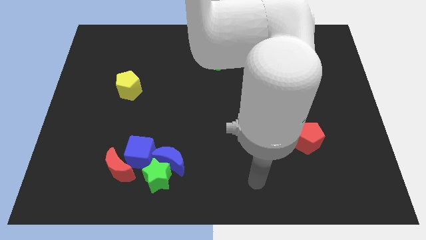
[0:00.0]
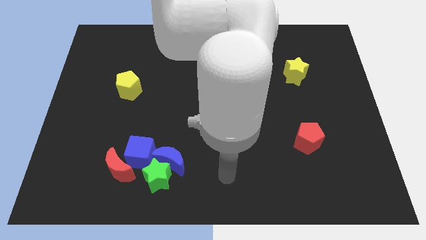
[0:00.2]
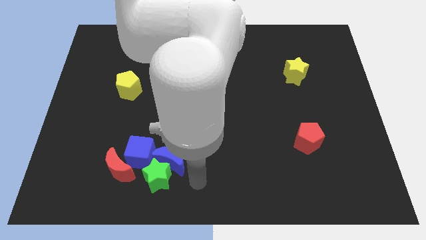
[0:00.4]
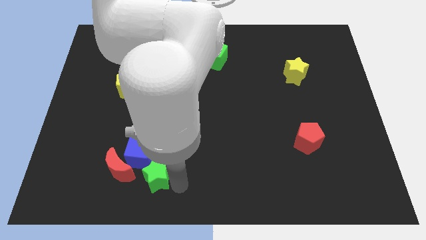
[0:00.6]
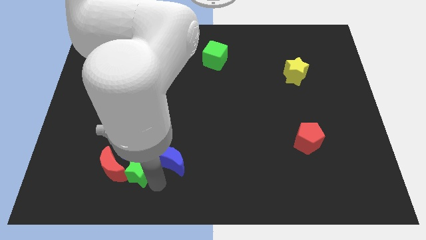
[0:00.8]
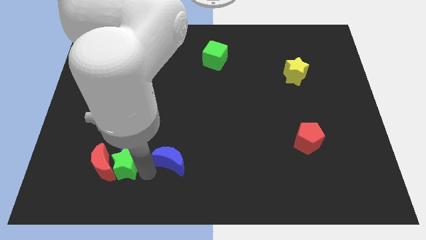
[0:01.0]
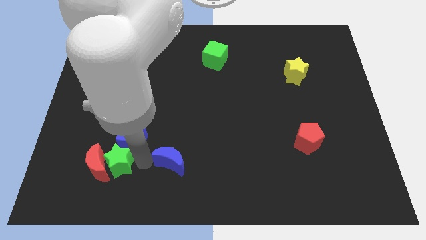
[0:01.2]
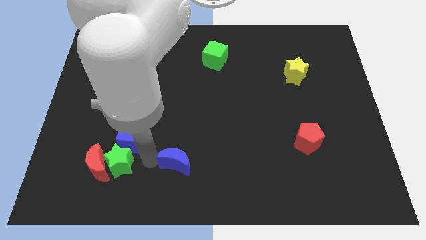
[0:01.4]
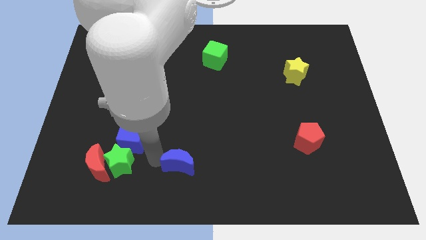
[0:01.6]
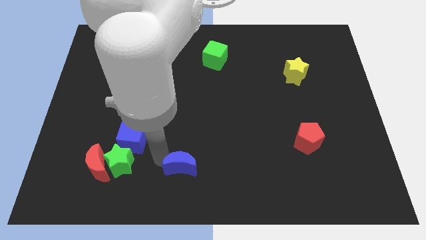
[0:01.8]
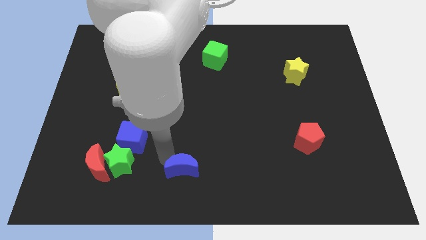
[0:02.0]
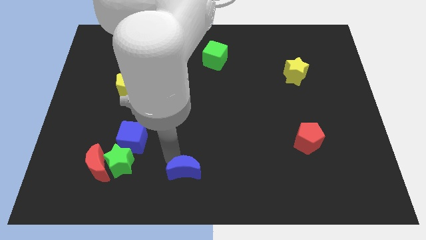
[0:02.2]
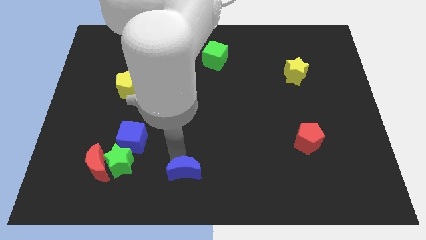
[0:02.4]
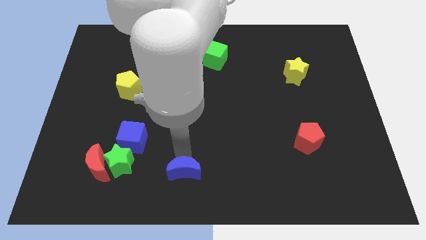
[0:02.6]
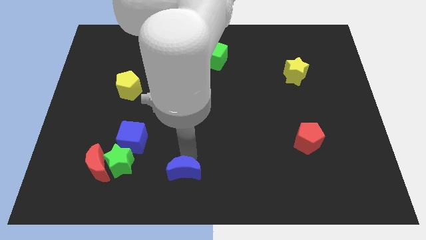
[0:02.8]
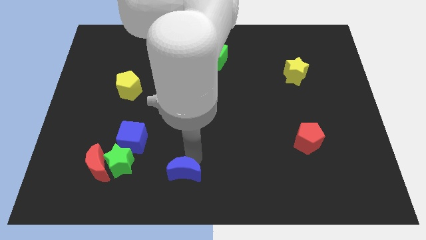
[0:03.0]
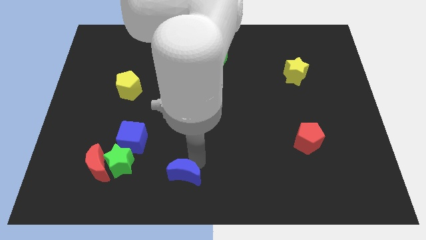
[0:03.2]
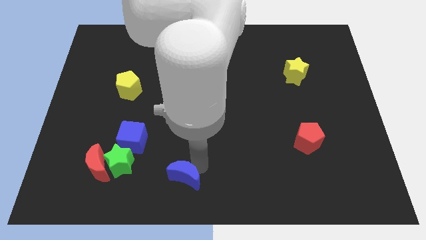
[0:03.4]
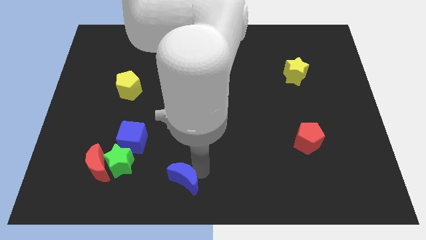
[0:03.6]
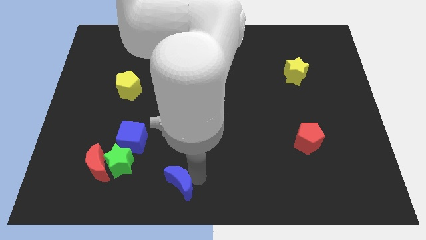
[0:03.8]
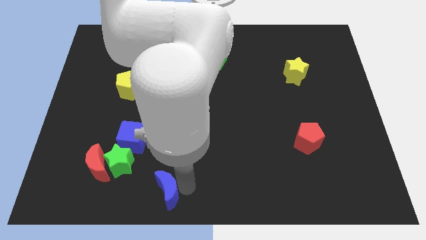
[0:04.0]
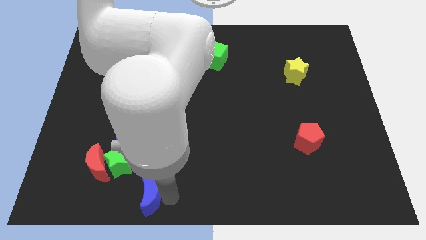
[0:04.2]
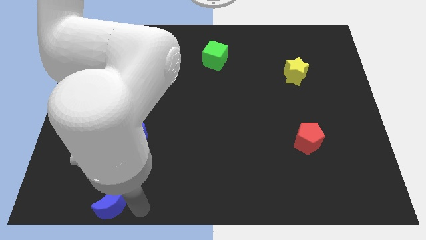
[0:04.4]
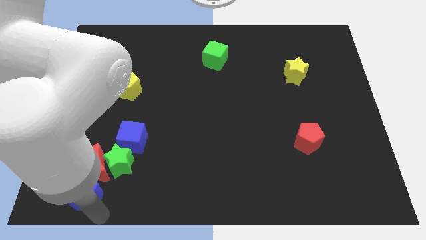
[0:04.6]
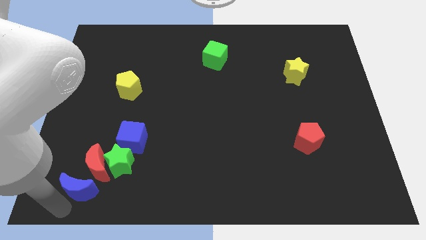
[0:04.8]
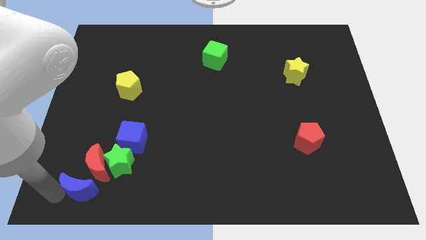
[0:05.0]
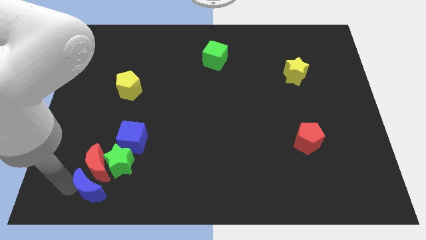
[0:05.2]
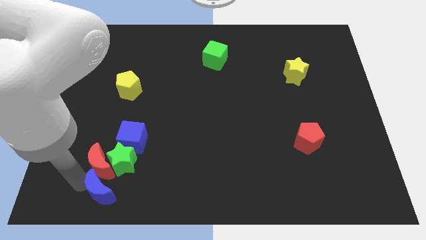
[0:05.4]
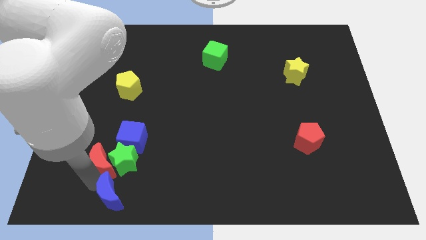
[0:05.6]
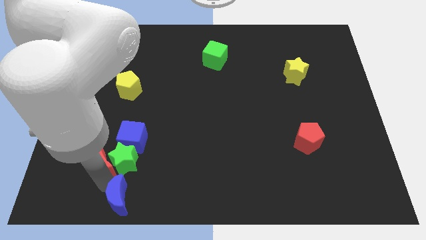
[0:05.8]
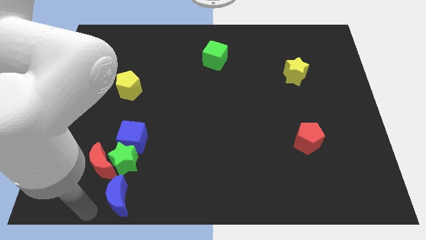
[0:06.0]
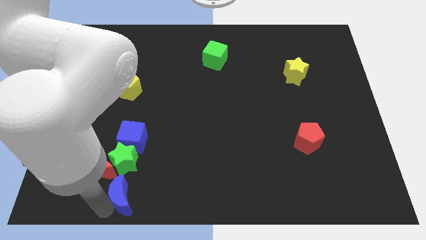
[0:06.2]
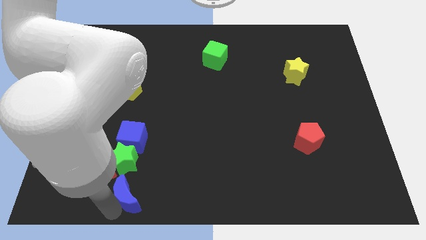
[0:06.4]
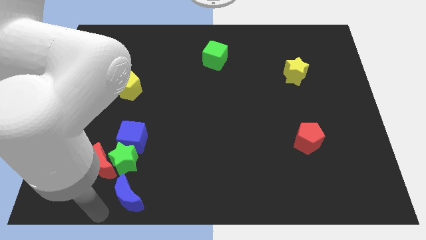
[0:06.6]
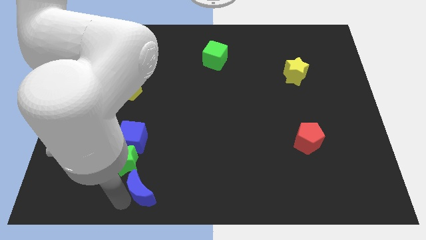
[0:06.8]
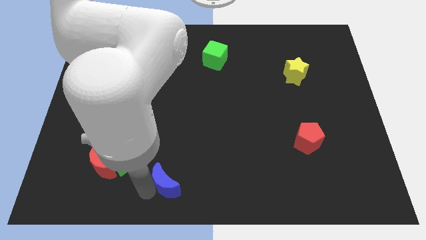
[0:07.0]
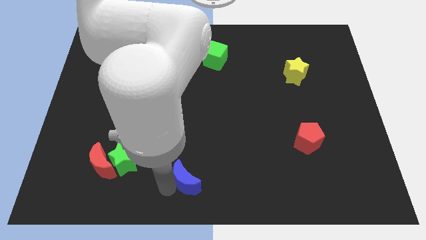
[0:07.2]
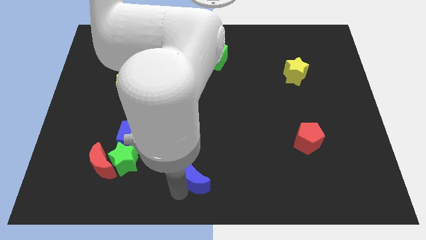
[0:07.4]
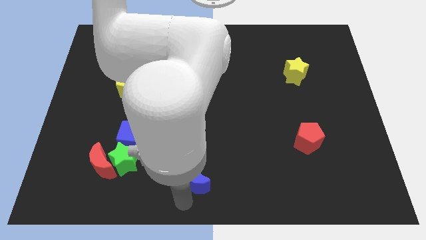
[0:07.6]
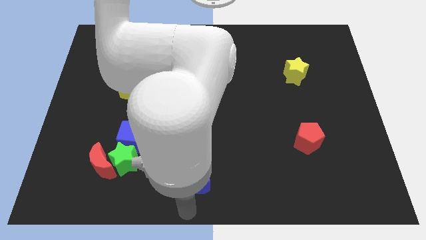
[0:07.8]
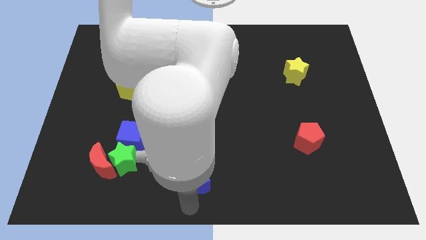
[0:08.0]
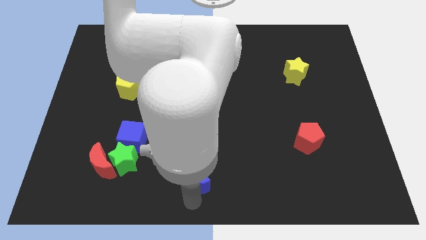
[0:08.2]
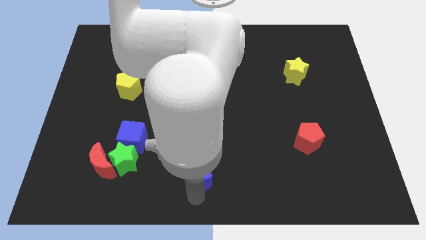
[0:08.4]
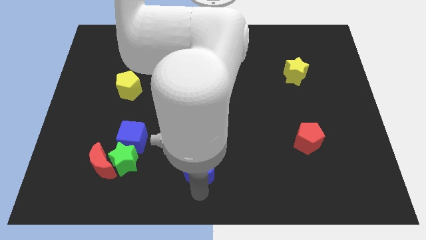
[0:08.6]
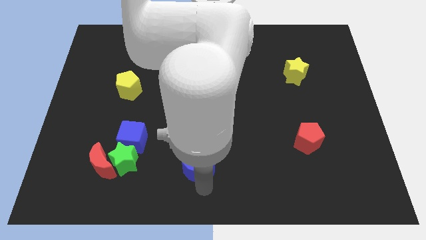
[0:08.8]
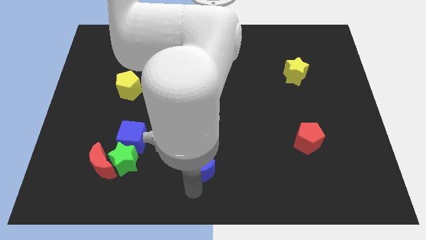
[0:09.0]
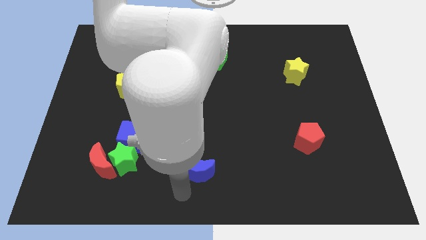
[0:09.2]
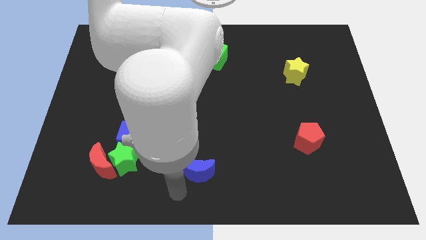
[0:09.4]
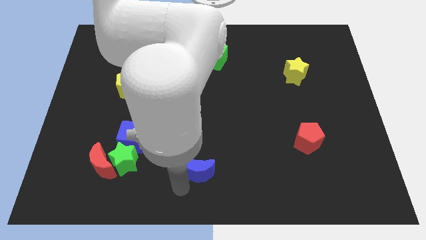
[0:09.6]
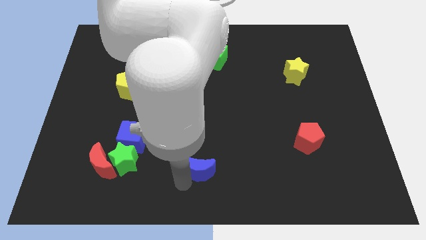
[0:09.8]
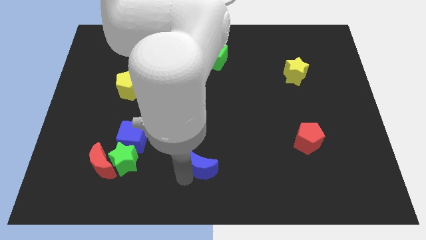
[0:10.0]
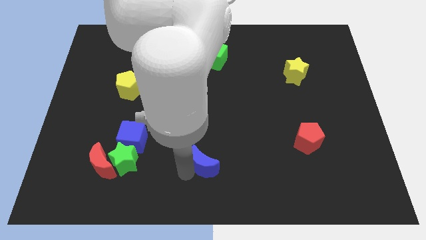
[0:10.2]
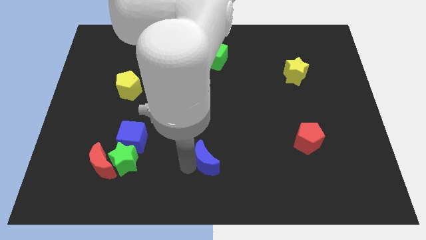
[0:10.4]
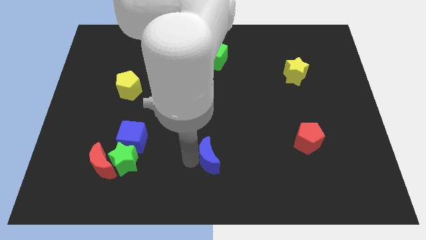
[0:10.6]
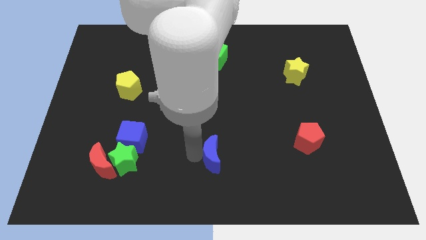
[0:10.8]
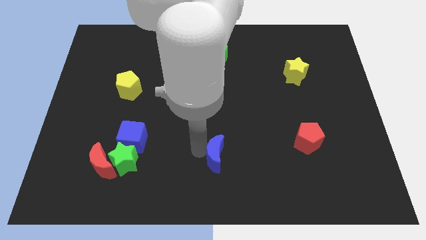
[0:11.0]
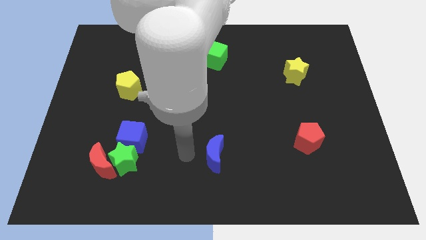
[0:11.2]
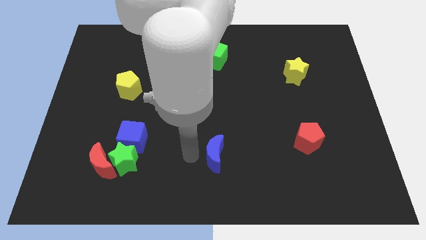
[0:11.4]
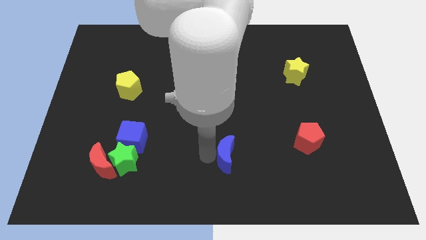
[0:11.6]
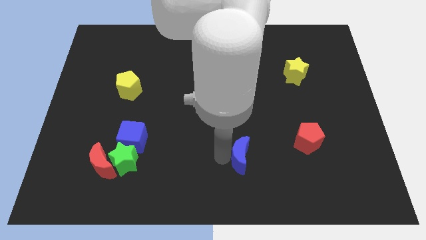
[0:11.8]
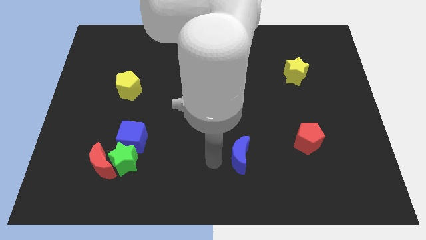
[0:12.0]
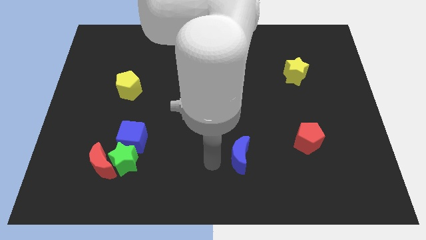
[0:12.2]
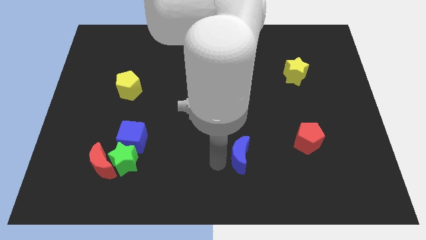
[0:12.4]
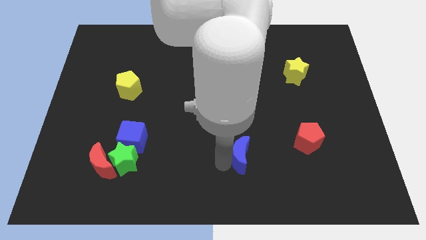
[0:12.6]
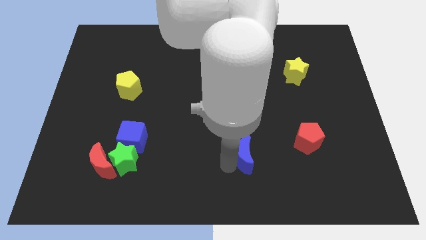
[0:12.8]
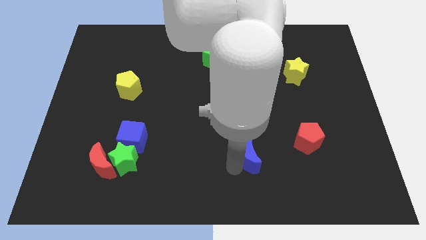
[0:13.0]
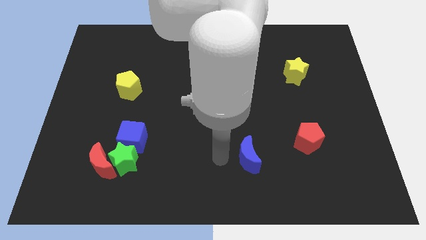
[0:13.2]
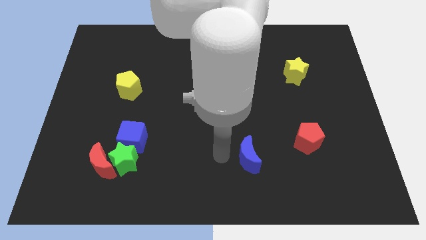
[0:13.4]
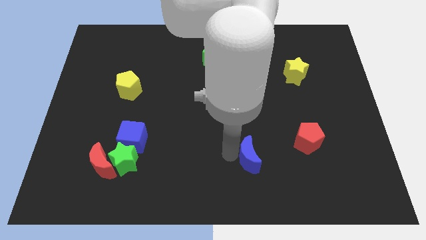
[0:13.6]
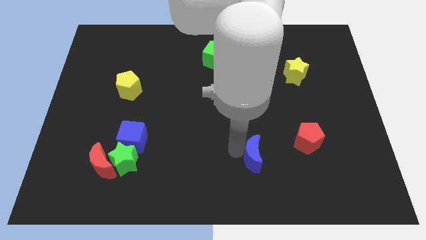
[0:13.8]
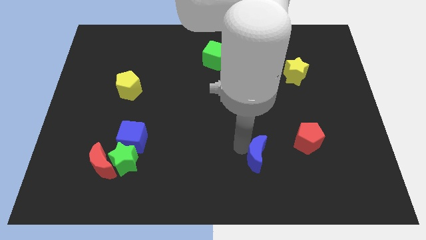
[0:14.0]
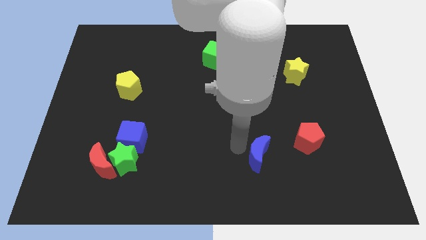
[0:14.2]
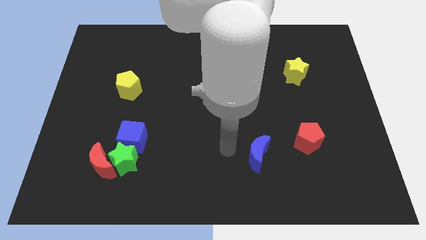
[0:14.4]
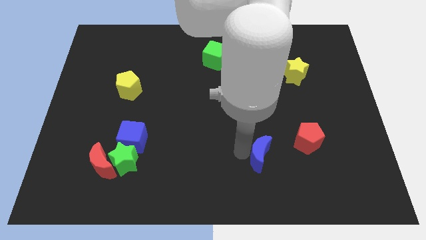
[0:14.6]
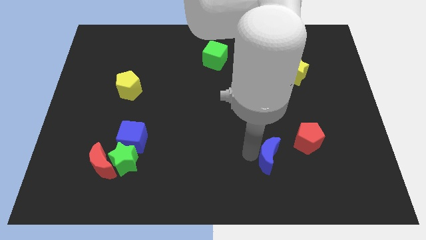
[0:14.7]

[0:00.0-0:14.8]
move the blue moon to the bottom left side of the red pentagon
